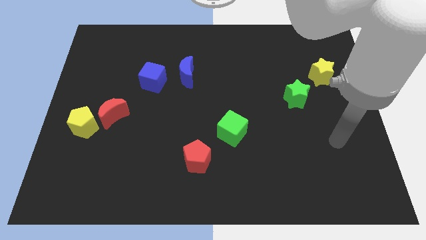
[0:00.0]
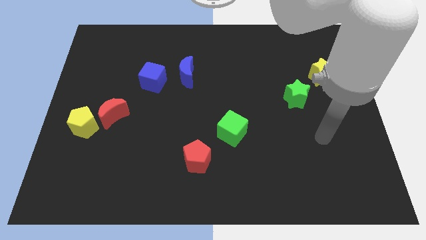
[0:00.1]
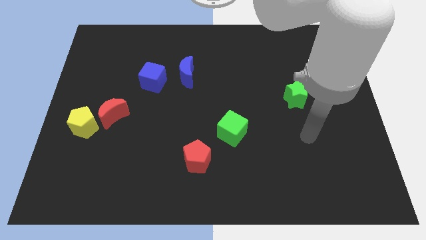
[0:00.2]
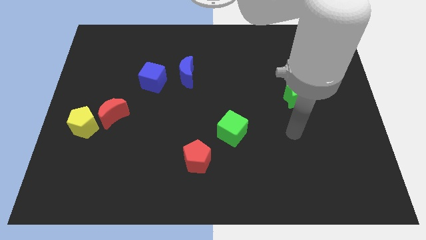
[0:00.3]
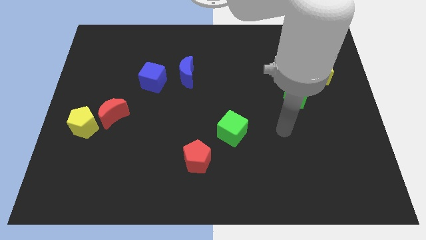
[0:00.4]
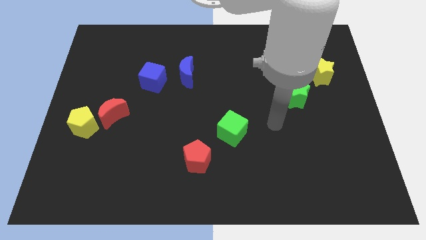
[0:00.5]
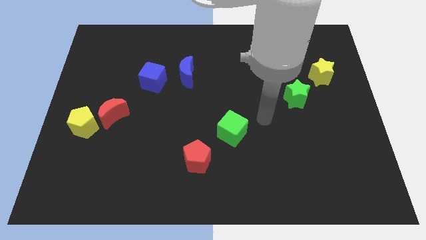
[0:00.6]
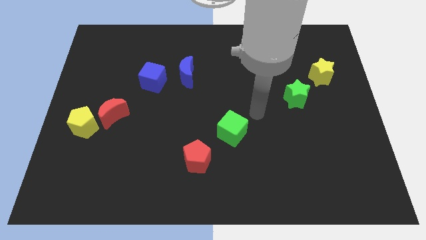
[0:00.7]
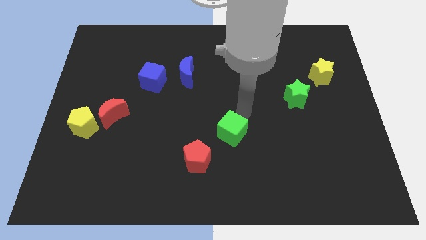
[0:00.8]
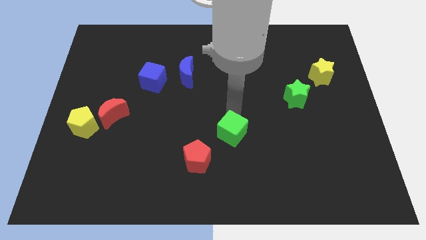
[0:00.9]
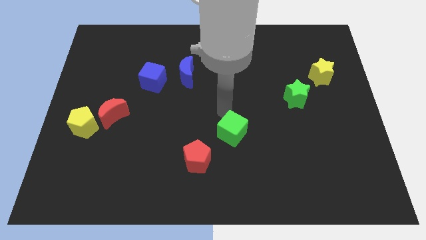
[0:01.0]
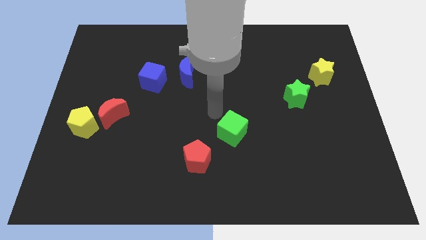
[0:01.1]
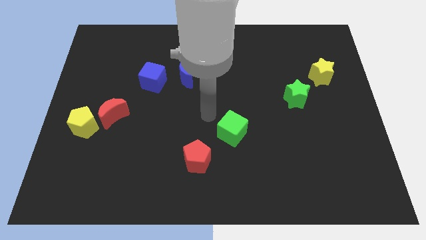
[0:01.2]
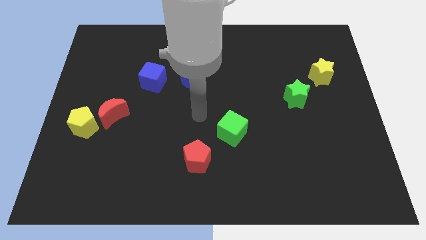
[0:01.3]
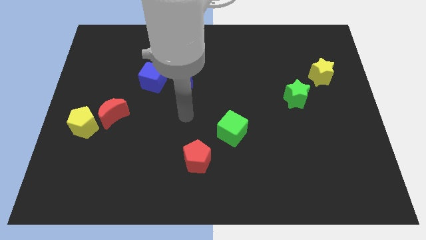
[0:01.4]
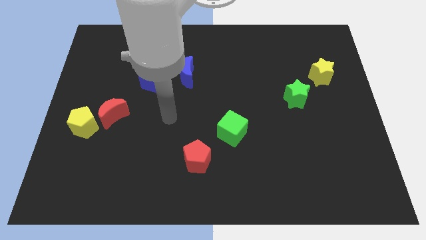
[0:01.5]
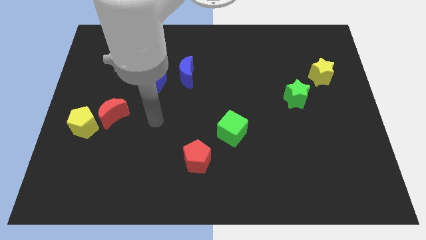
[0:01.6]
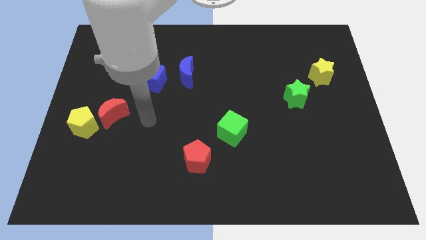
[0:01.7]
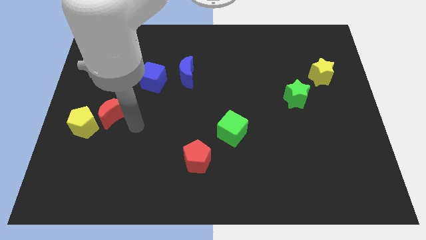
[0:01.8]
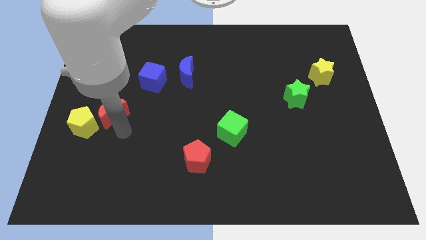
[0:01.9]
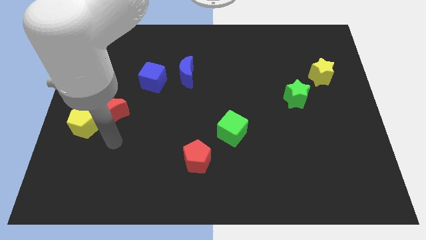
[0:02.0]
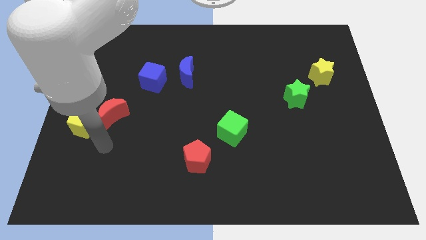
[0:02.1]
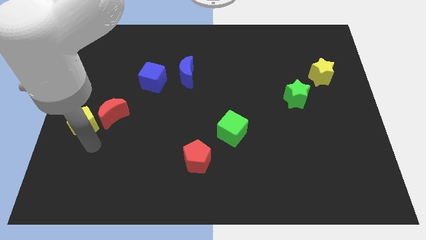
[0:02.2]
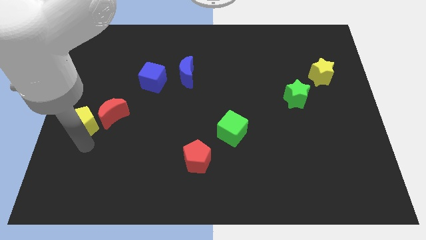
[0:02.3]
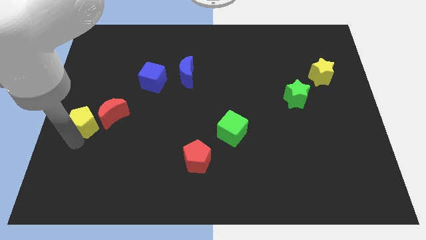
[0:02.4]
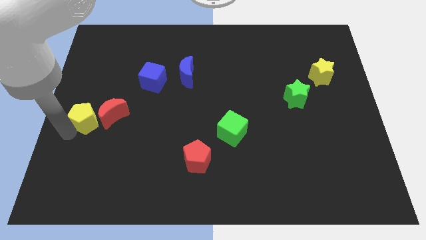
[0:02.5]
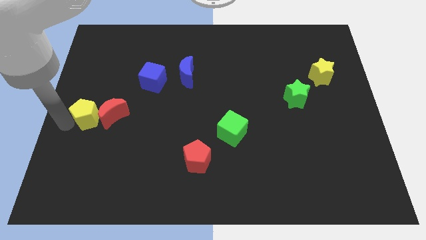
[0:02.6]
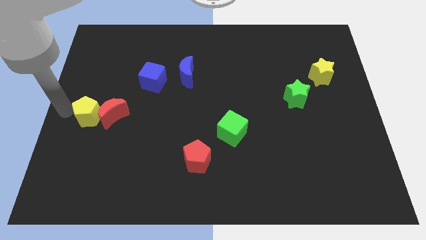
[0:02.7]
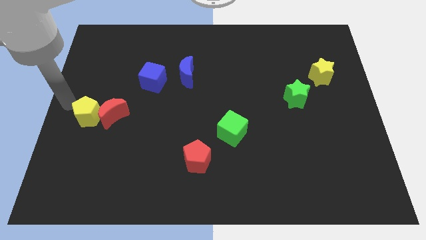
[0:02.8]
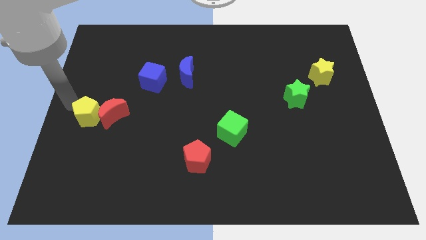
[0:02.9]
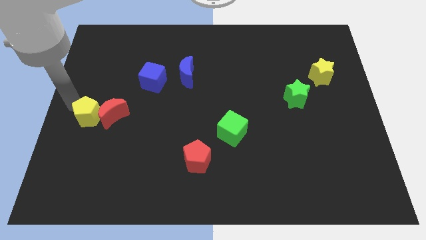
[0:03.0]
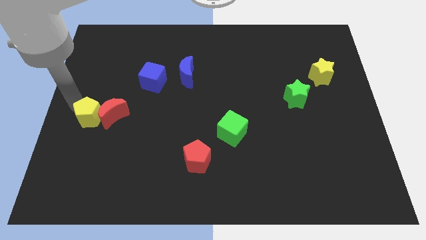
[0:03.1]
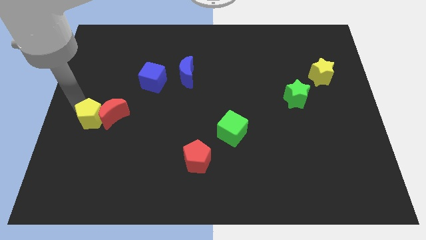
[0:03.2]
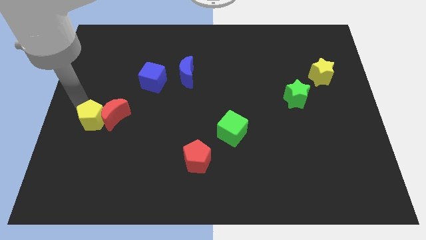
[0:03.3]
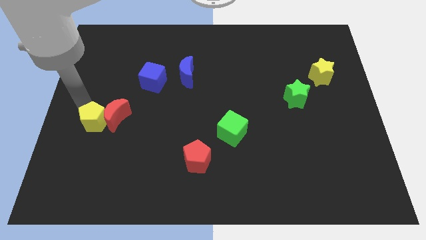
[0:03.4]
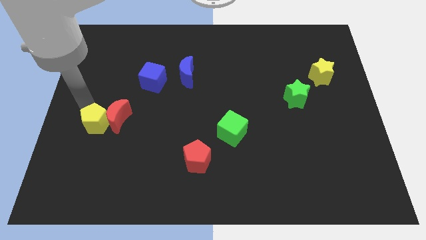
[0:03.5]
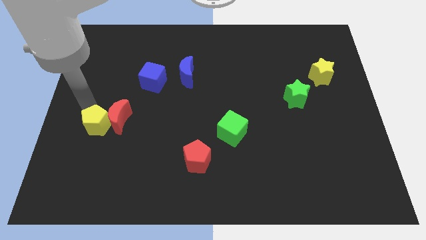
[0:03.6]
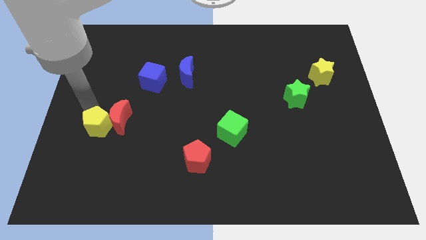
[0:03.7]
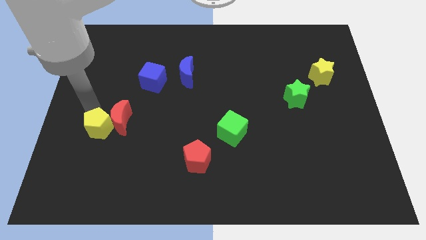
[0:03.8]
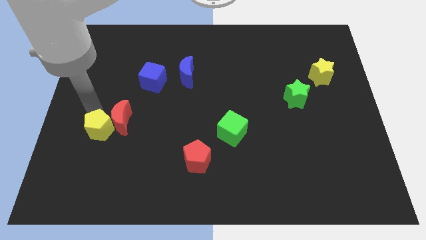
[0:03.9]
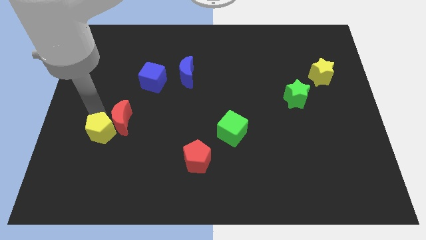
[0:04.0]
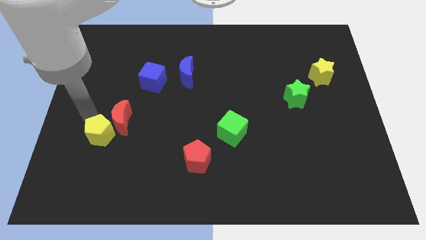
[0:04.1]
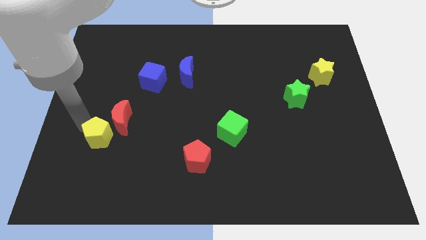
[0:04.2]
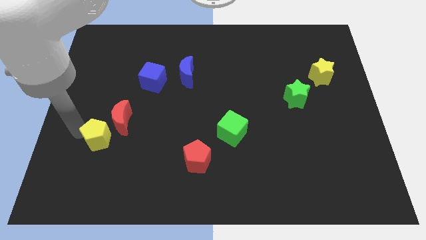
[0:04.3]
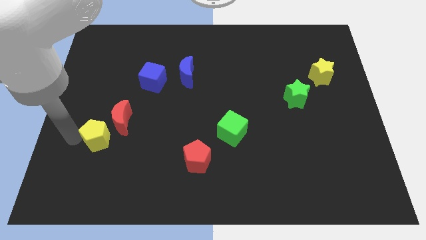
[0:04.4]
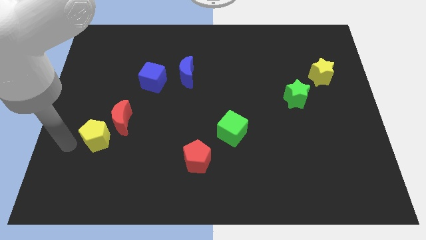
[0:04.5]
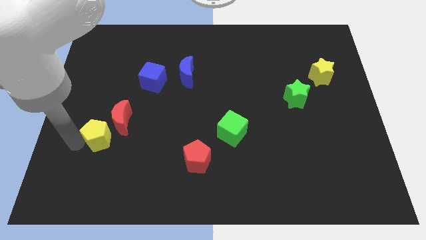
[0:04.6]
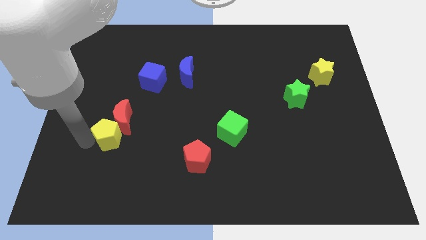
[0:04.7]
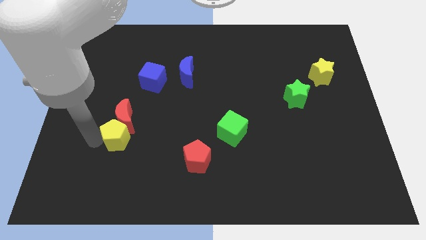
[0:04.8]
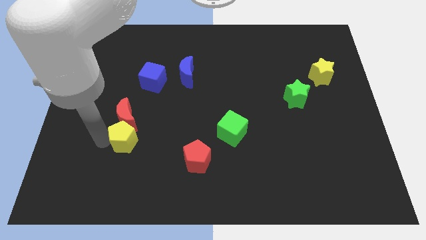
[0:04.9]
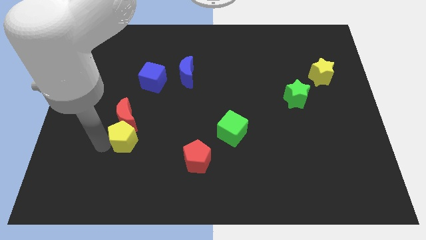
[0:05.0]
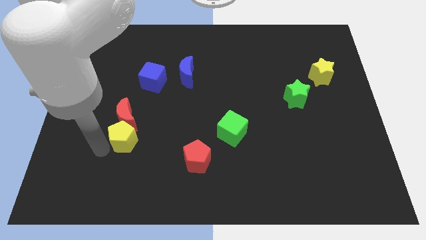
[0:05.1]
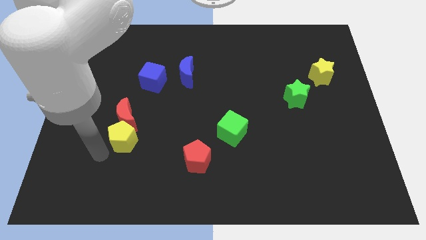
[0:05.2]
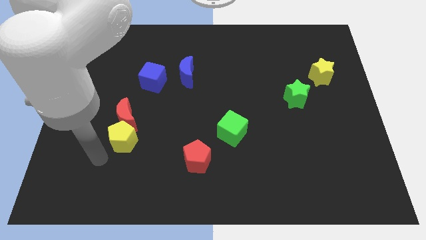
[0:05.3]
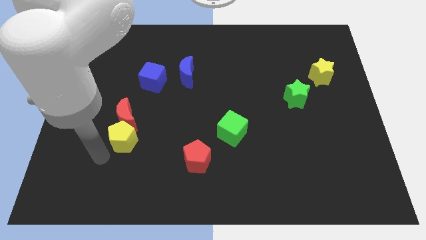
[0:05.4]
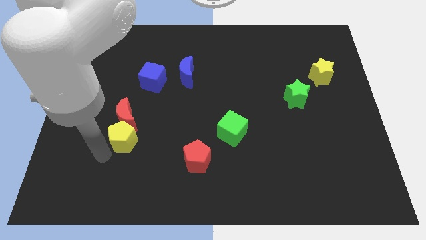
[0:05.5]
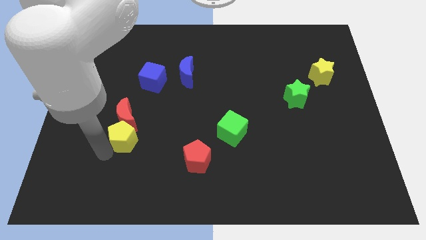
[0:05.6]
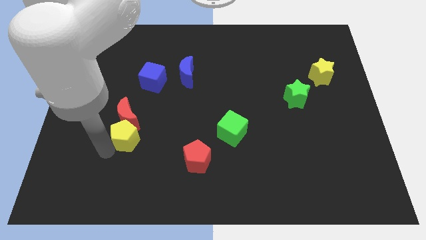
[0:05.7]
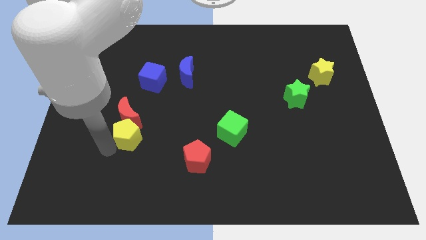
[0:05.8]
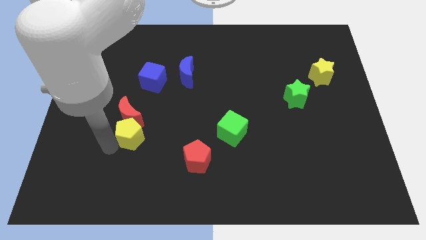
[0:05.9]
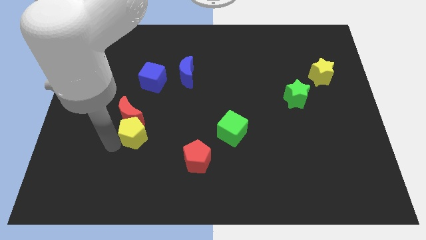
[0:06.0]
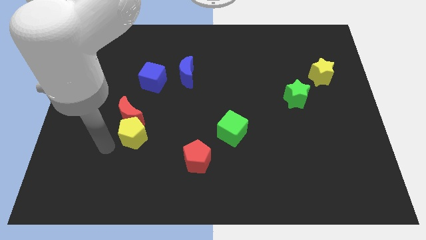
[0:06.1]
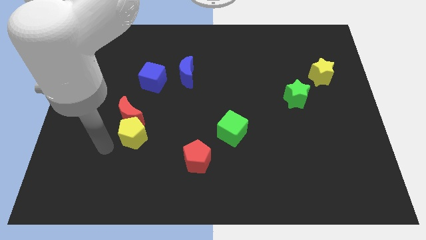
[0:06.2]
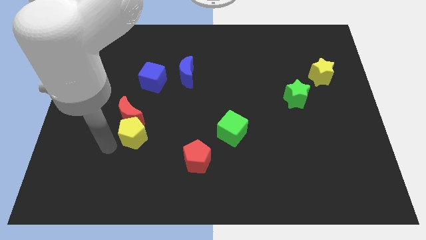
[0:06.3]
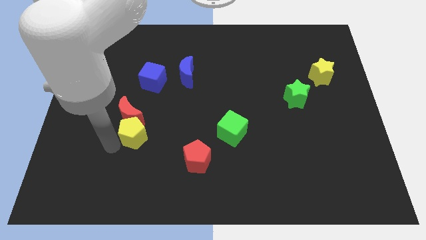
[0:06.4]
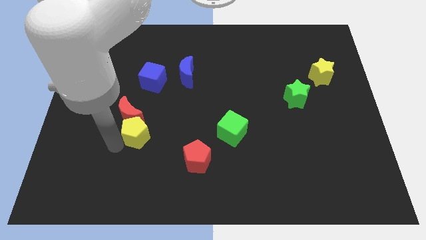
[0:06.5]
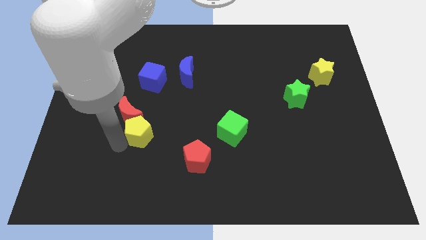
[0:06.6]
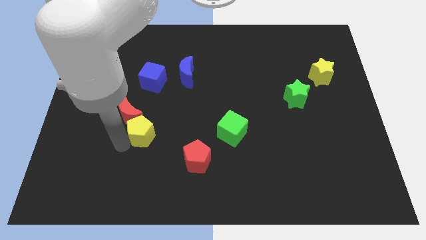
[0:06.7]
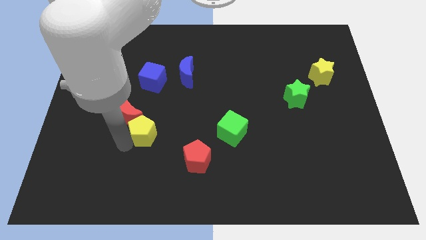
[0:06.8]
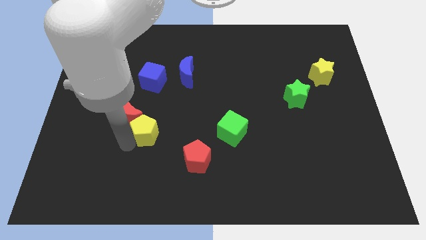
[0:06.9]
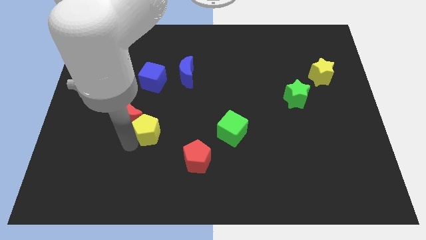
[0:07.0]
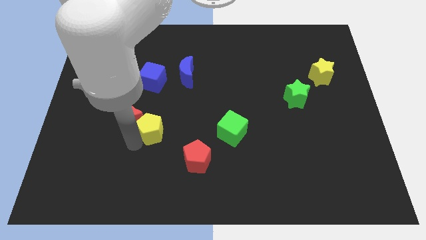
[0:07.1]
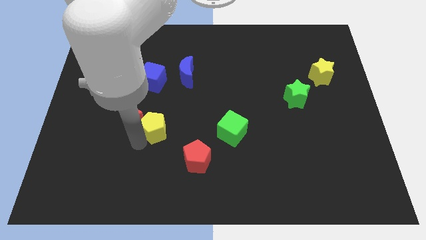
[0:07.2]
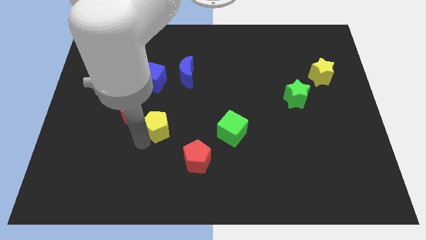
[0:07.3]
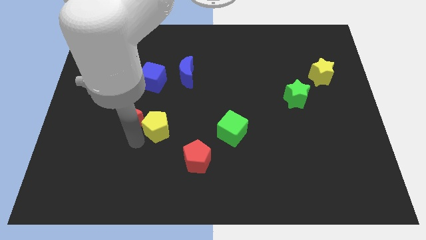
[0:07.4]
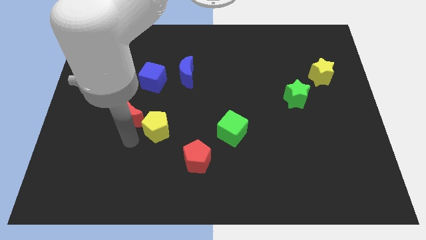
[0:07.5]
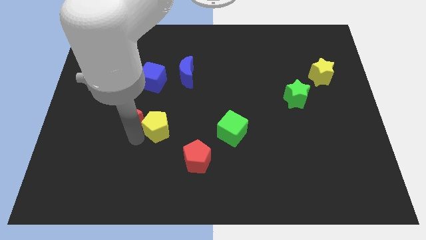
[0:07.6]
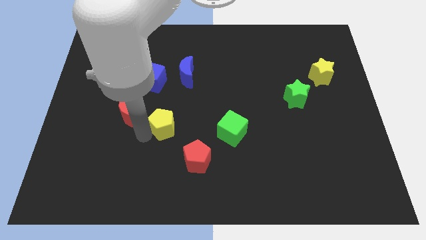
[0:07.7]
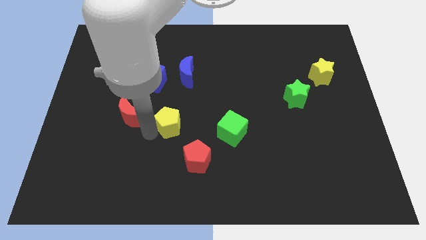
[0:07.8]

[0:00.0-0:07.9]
slide the yellow pentagon to the middle
